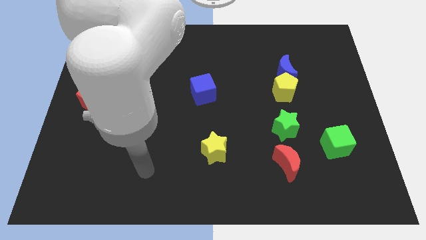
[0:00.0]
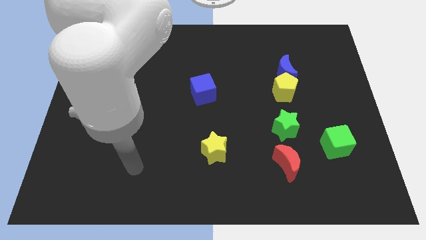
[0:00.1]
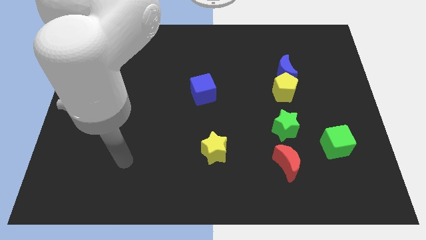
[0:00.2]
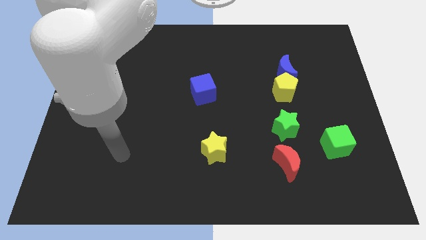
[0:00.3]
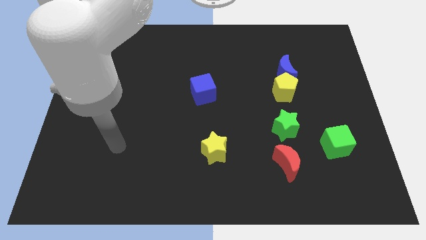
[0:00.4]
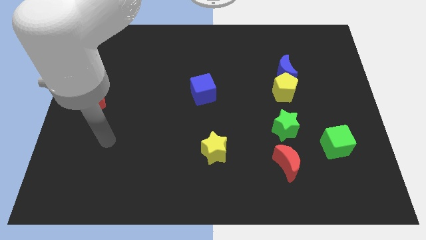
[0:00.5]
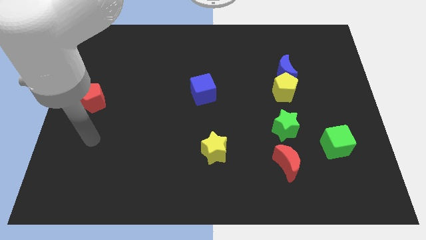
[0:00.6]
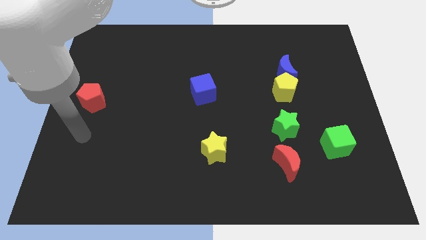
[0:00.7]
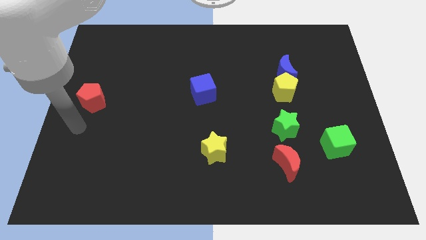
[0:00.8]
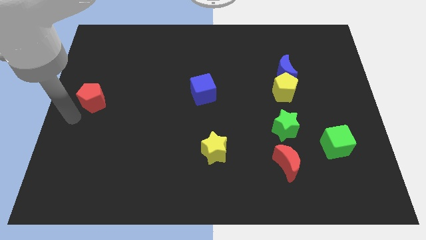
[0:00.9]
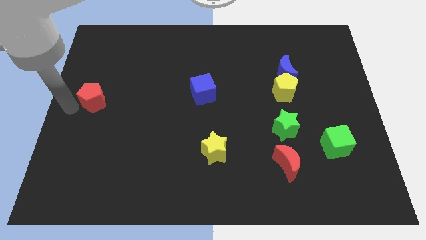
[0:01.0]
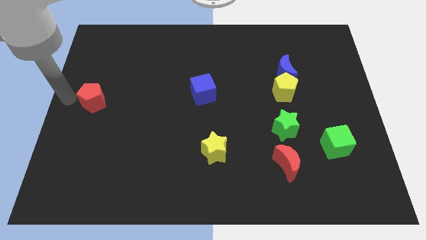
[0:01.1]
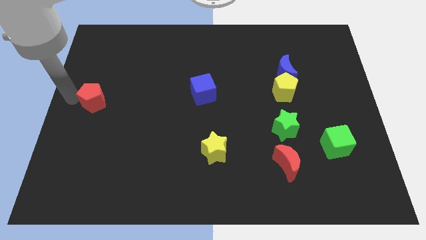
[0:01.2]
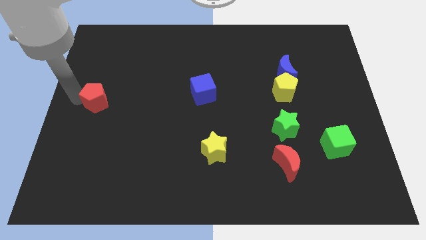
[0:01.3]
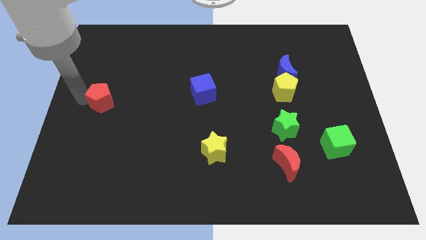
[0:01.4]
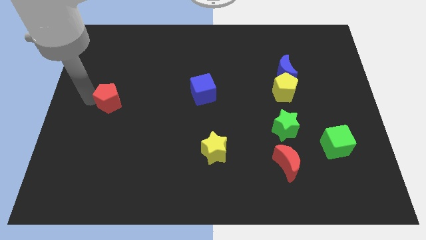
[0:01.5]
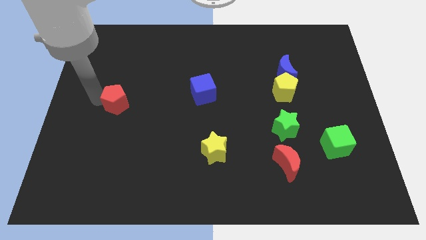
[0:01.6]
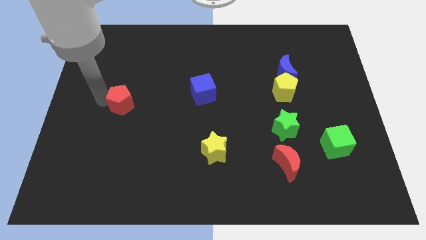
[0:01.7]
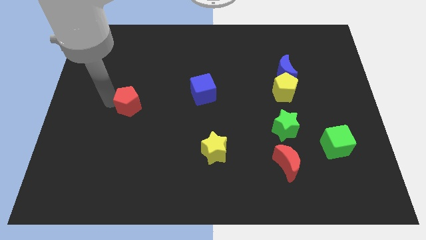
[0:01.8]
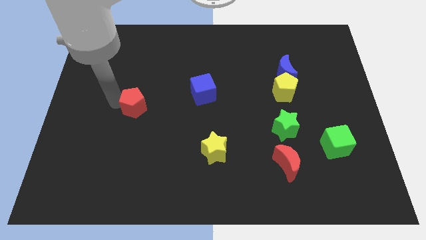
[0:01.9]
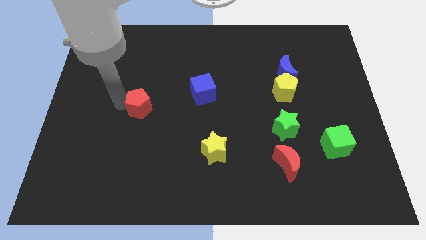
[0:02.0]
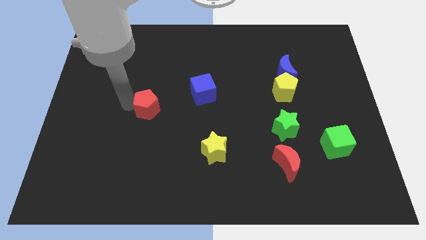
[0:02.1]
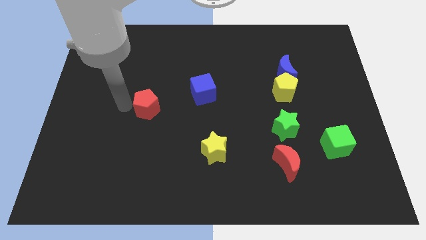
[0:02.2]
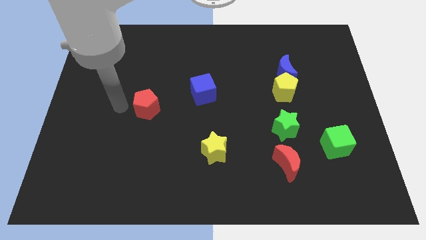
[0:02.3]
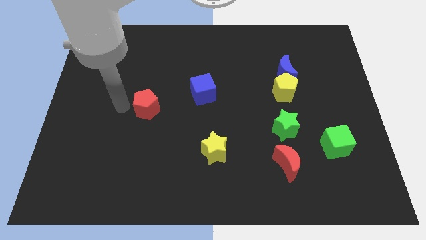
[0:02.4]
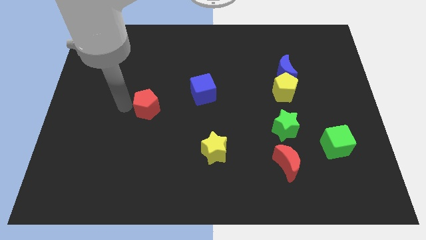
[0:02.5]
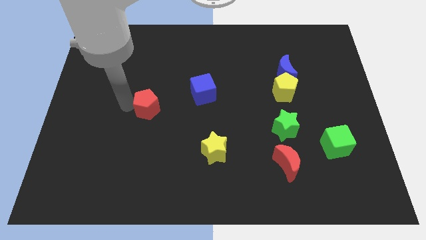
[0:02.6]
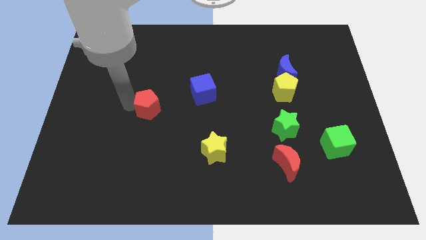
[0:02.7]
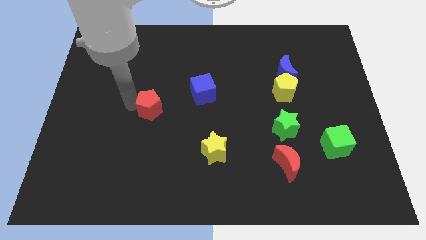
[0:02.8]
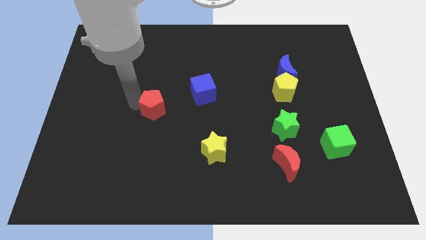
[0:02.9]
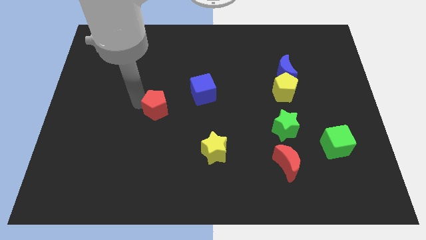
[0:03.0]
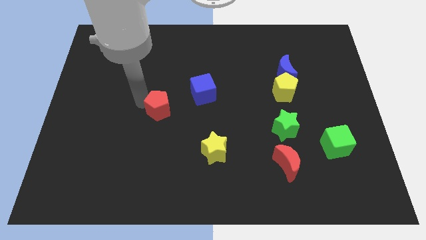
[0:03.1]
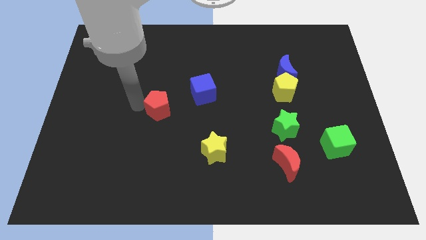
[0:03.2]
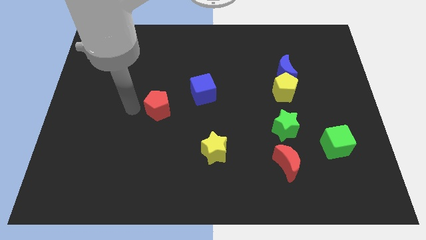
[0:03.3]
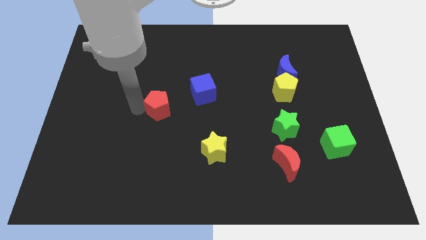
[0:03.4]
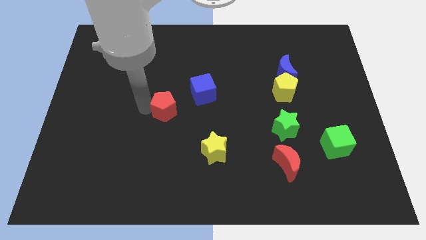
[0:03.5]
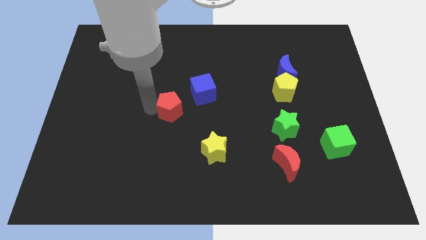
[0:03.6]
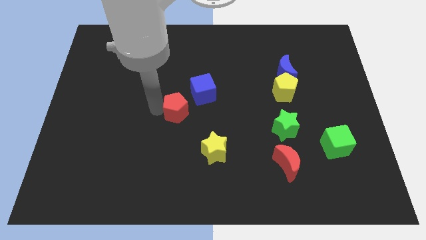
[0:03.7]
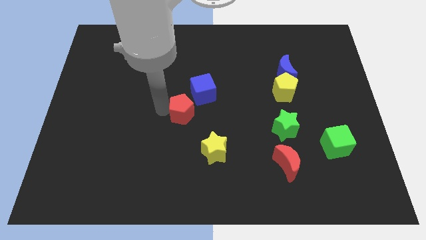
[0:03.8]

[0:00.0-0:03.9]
slide the red pentagon to the right

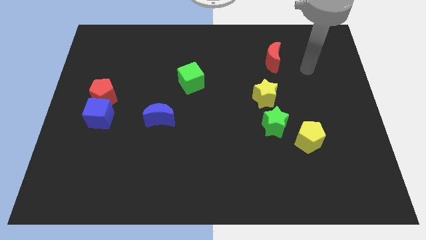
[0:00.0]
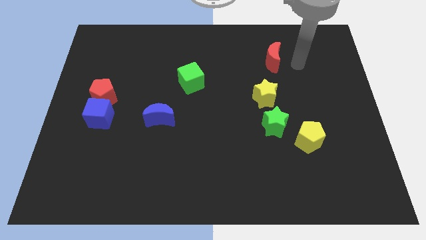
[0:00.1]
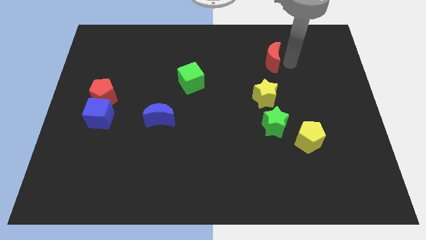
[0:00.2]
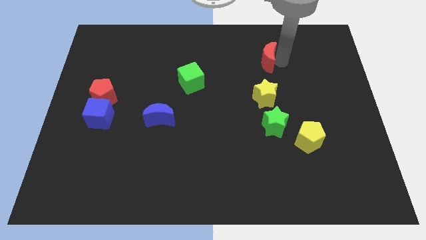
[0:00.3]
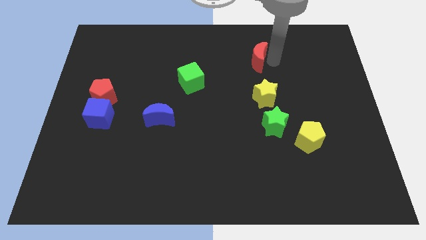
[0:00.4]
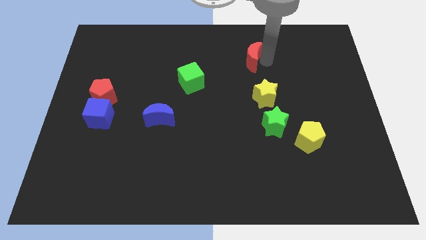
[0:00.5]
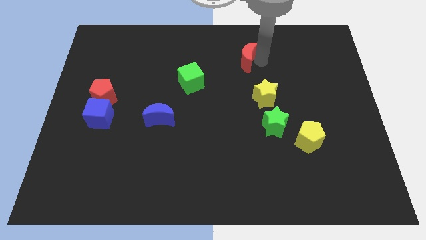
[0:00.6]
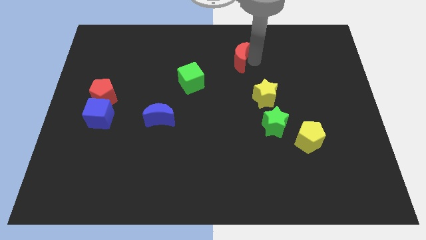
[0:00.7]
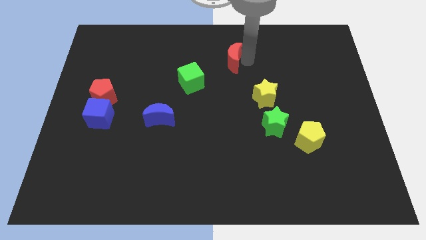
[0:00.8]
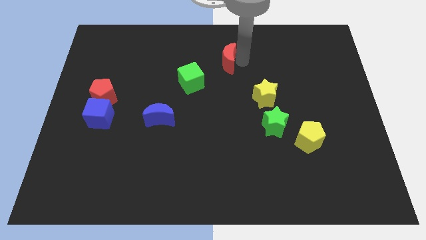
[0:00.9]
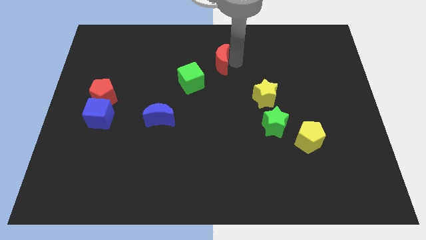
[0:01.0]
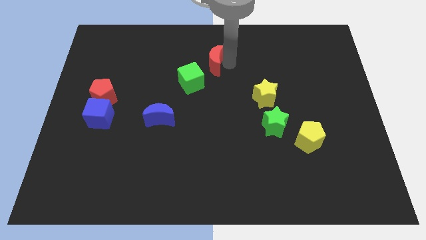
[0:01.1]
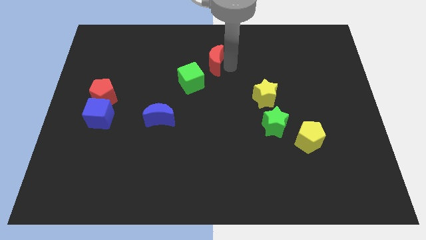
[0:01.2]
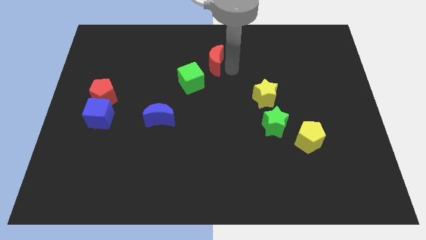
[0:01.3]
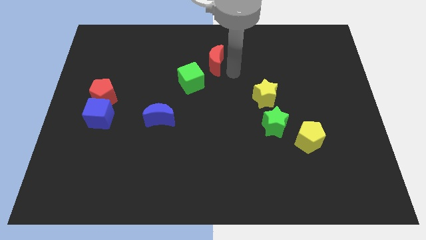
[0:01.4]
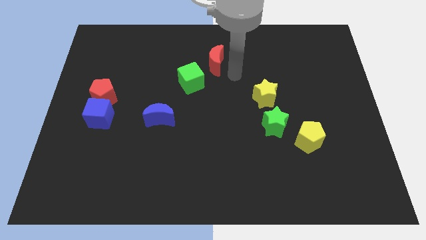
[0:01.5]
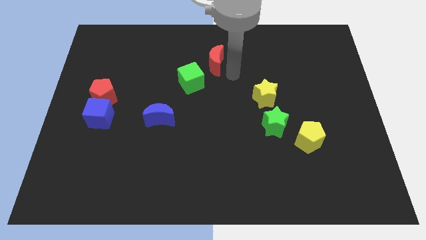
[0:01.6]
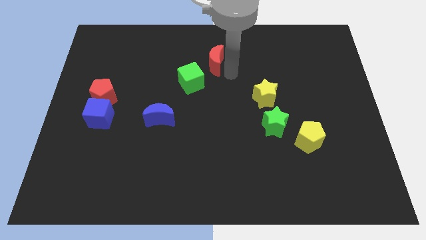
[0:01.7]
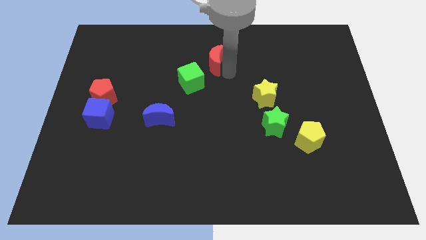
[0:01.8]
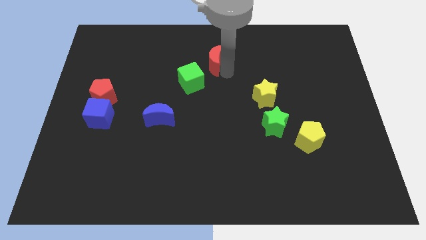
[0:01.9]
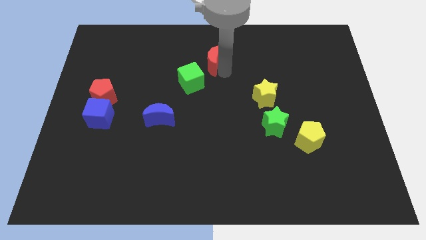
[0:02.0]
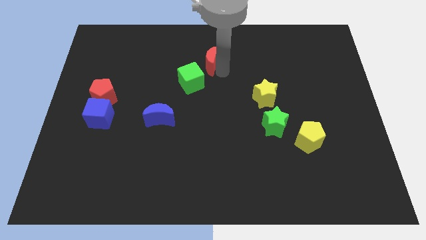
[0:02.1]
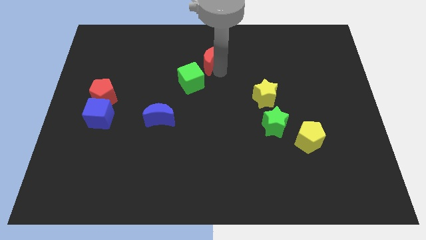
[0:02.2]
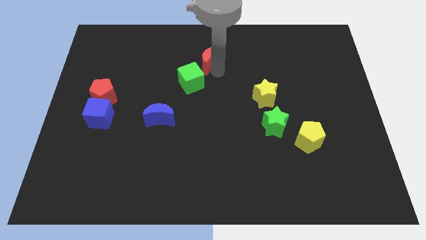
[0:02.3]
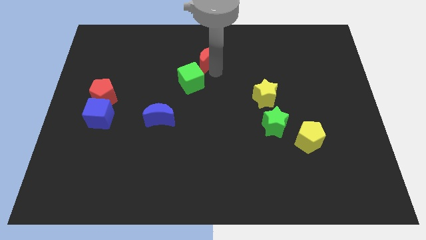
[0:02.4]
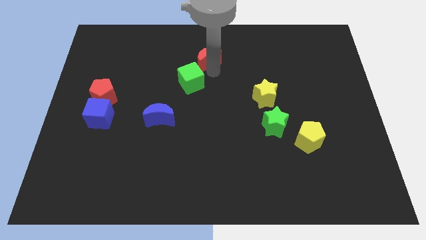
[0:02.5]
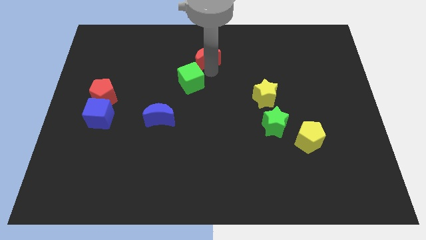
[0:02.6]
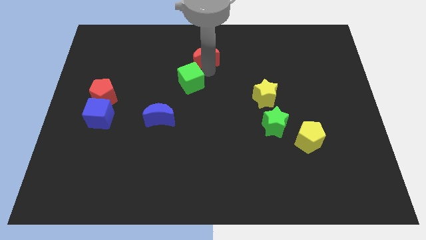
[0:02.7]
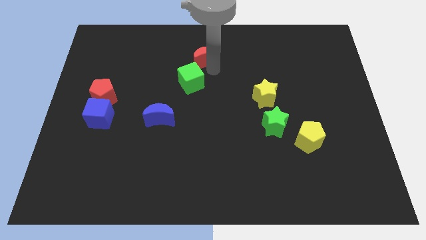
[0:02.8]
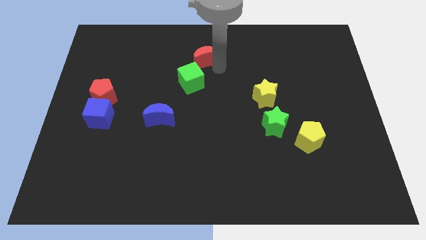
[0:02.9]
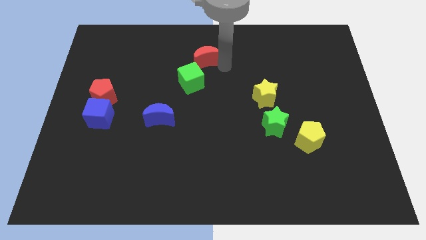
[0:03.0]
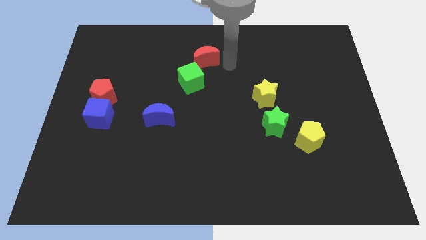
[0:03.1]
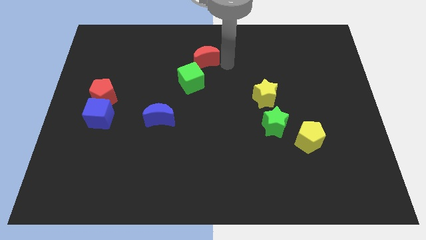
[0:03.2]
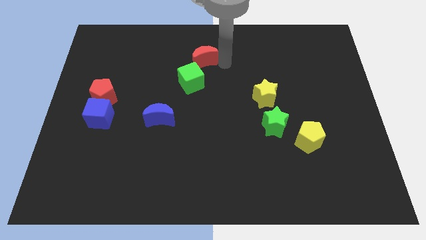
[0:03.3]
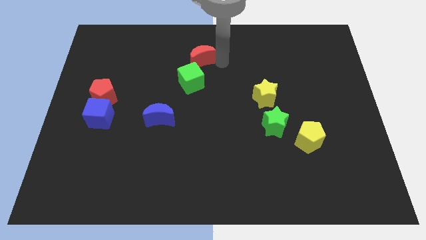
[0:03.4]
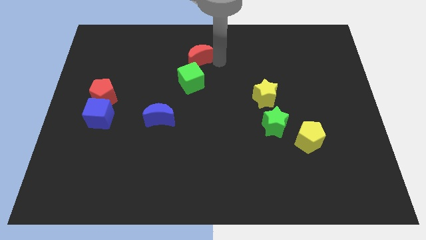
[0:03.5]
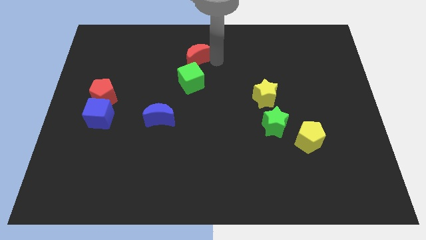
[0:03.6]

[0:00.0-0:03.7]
slide the red moon to the left

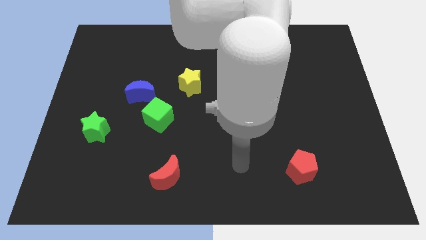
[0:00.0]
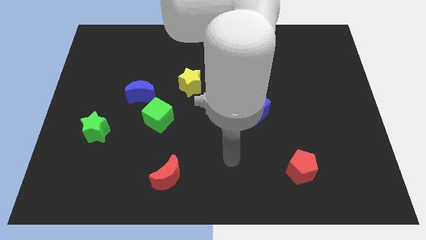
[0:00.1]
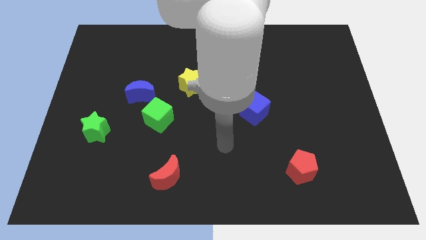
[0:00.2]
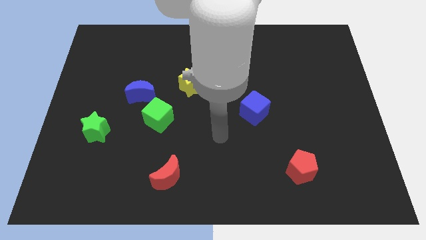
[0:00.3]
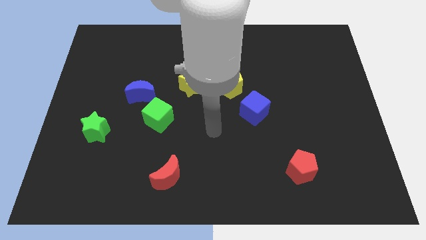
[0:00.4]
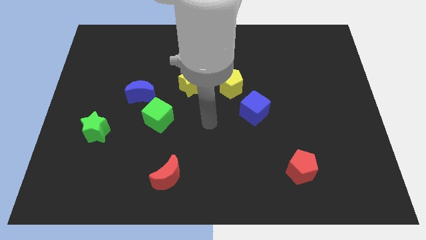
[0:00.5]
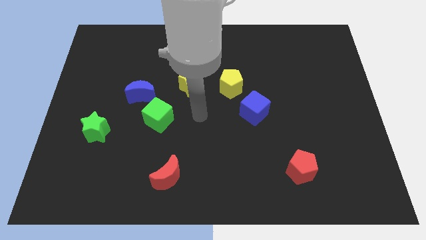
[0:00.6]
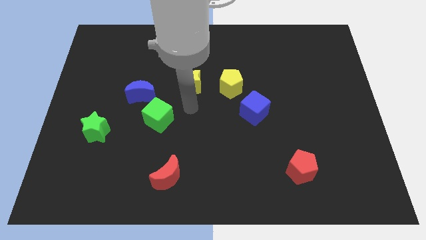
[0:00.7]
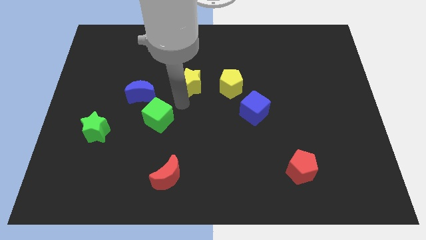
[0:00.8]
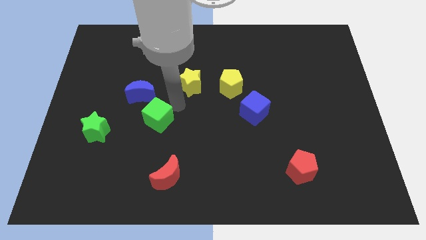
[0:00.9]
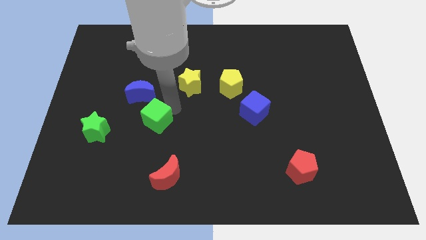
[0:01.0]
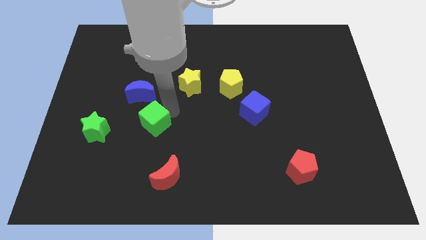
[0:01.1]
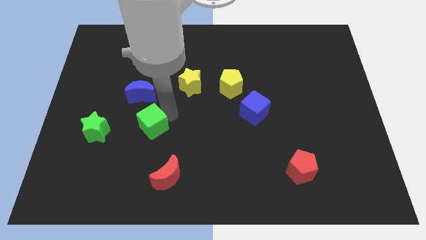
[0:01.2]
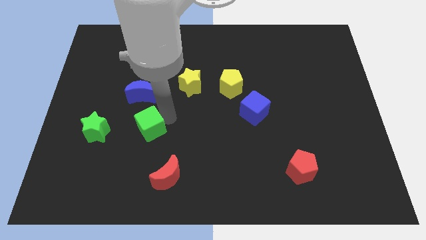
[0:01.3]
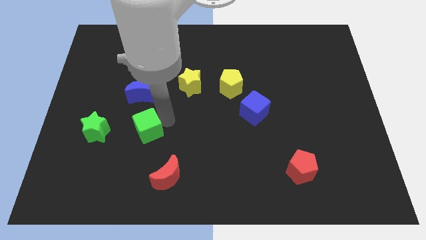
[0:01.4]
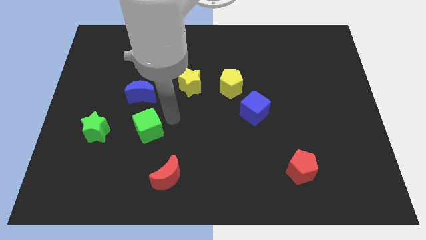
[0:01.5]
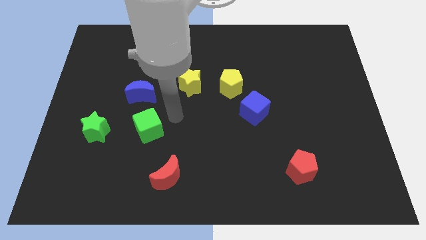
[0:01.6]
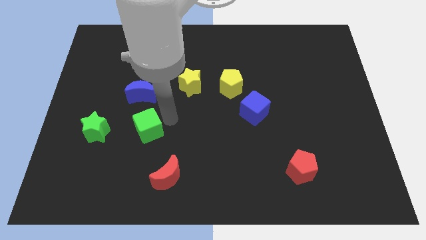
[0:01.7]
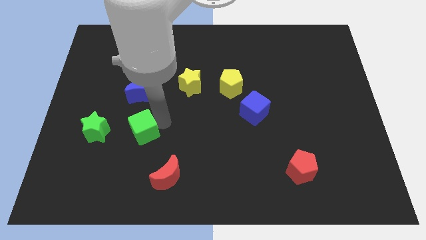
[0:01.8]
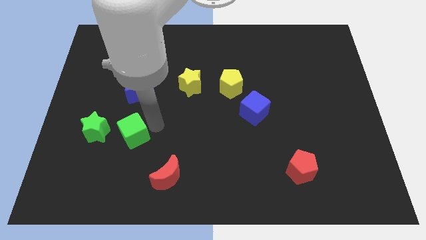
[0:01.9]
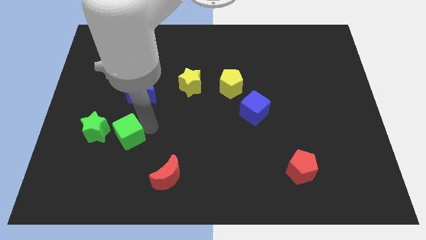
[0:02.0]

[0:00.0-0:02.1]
slightly push the green cube downwards and left diagonally
